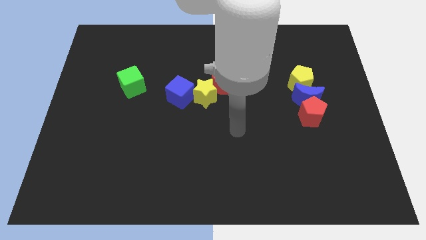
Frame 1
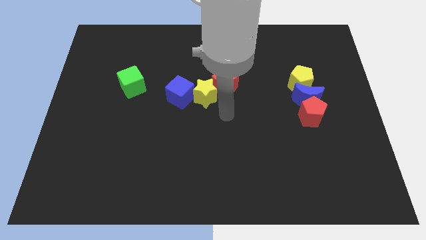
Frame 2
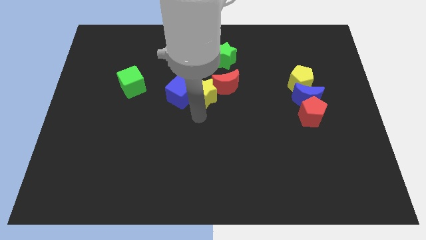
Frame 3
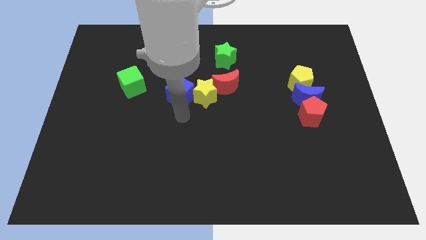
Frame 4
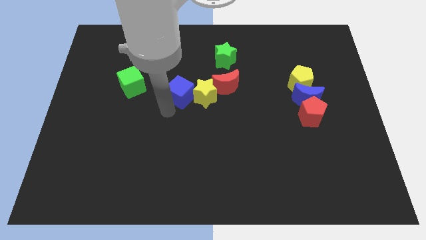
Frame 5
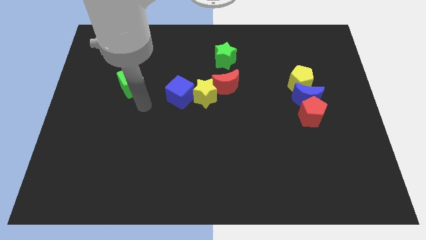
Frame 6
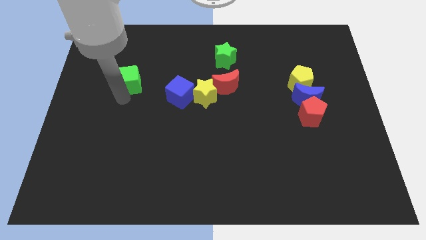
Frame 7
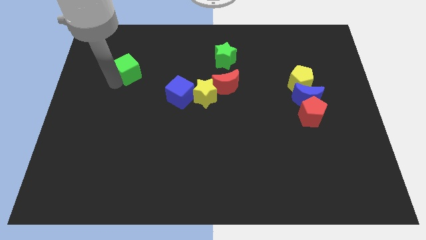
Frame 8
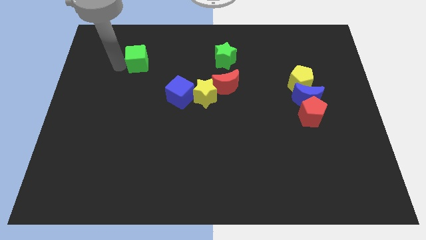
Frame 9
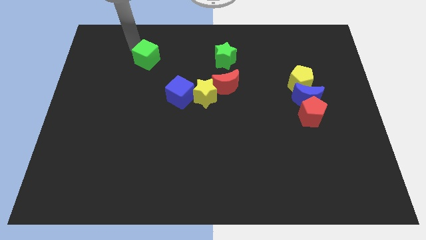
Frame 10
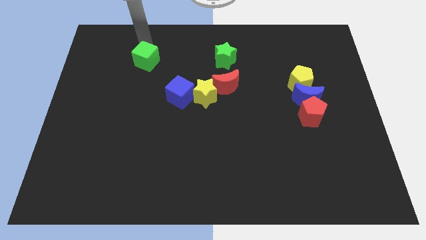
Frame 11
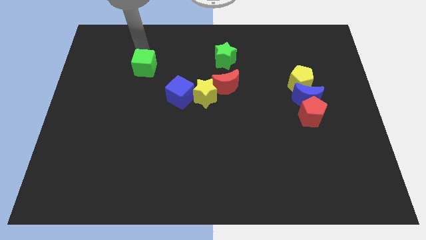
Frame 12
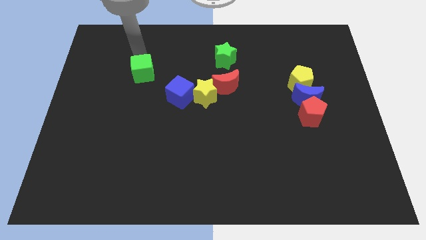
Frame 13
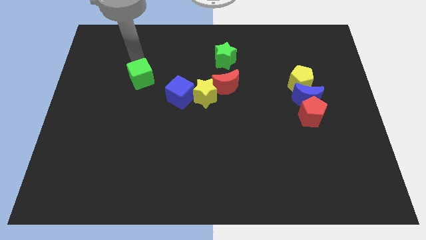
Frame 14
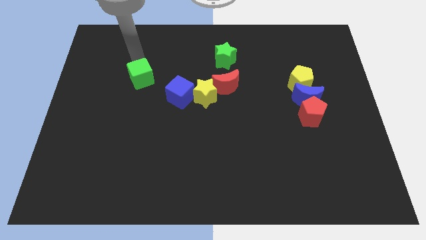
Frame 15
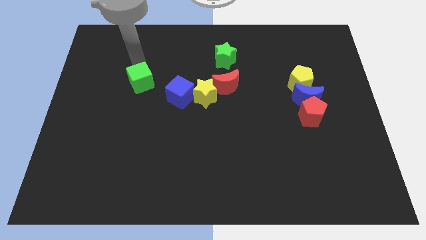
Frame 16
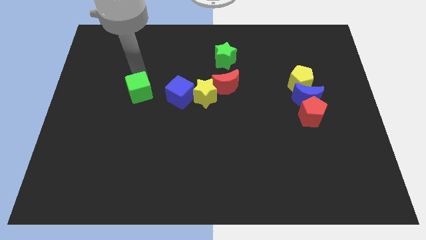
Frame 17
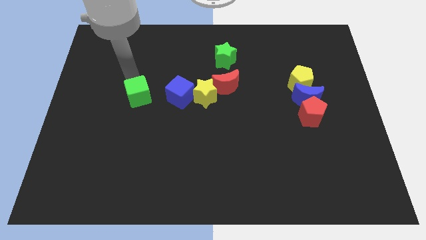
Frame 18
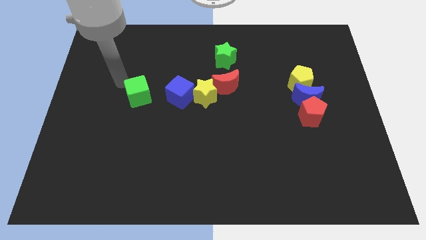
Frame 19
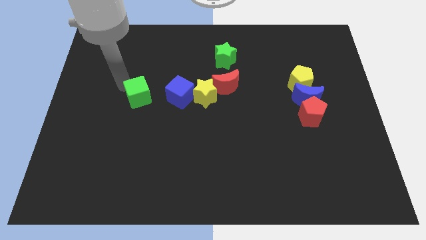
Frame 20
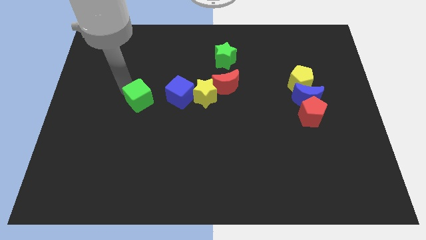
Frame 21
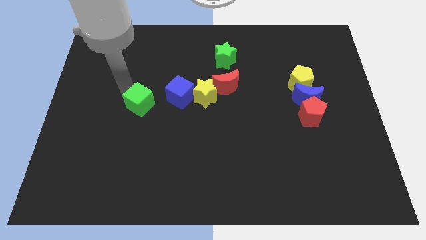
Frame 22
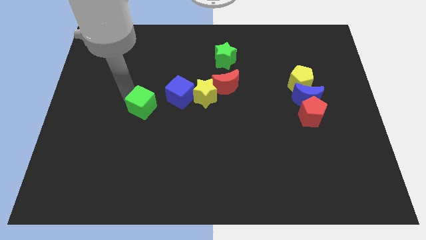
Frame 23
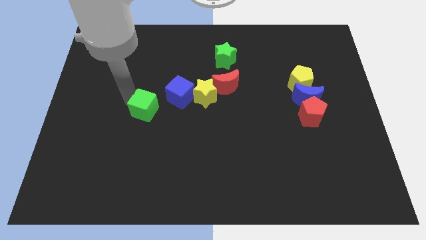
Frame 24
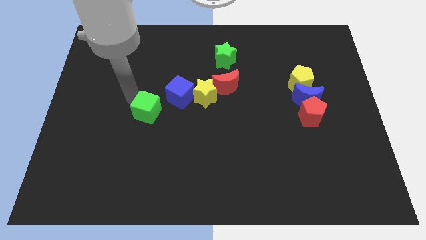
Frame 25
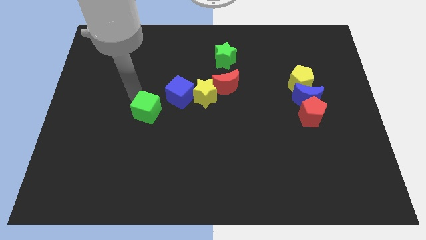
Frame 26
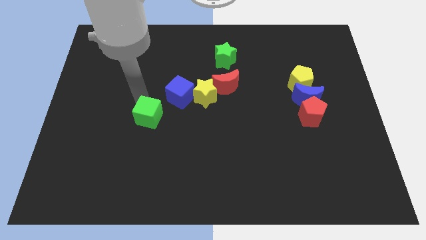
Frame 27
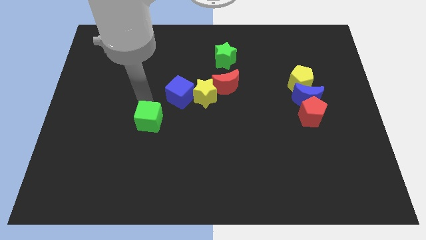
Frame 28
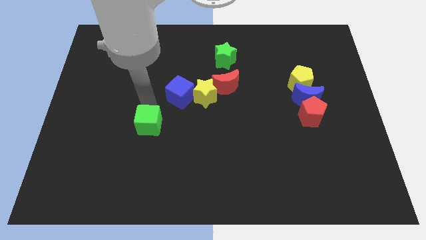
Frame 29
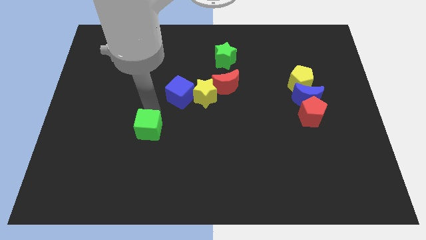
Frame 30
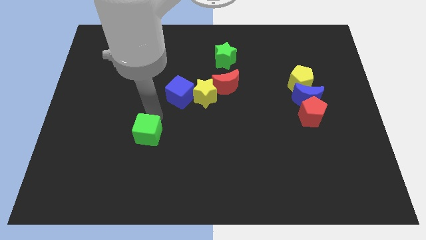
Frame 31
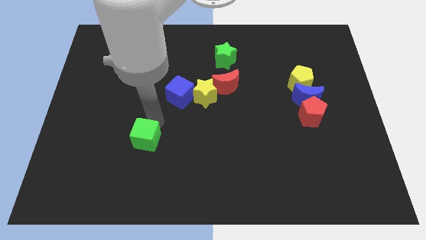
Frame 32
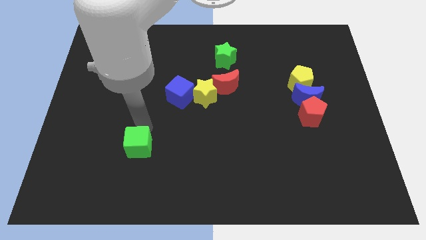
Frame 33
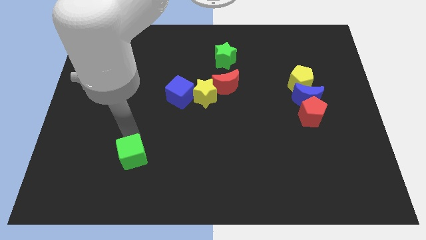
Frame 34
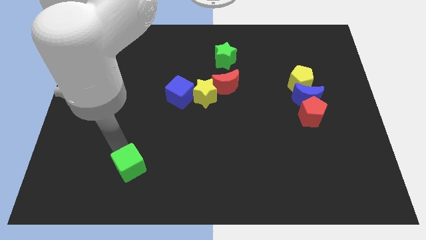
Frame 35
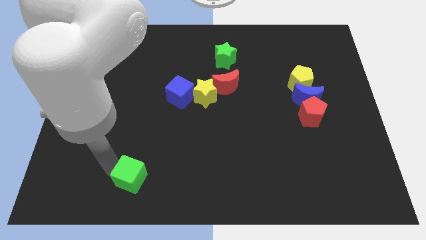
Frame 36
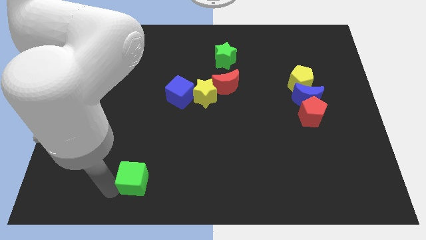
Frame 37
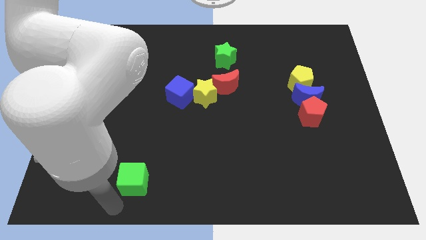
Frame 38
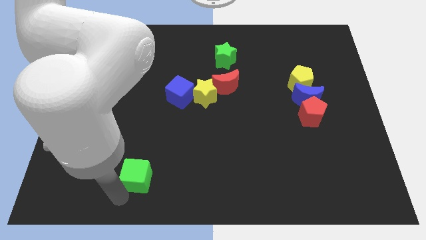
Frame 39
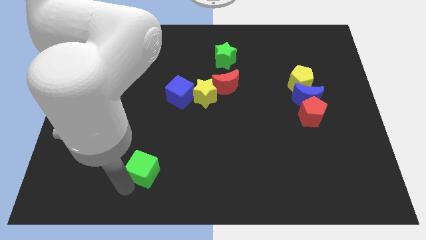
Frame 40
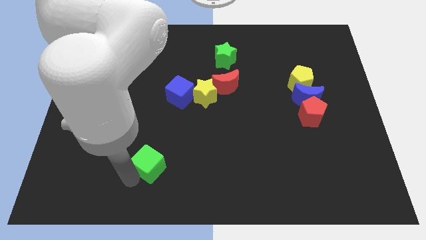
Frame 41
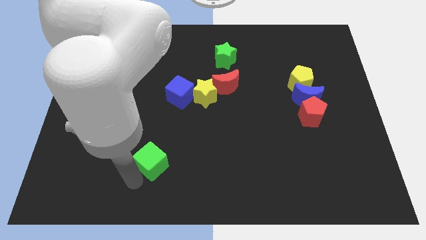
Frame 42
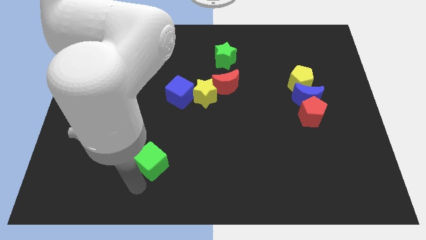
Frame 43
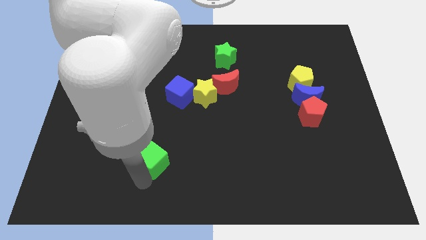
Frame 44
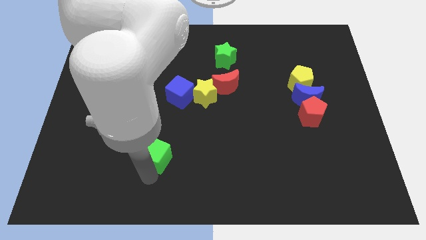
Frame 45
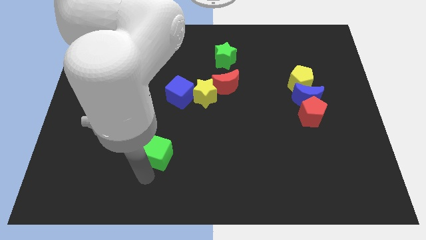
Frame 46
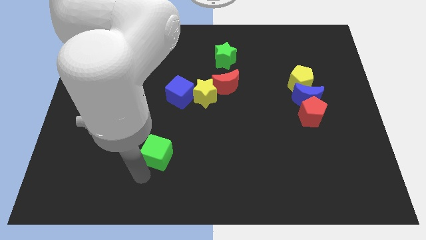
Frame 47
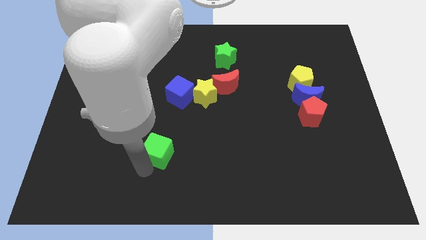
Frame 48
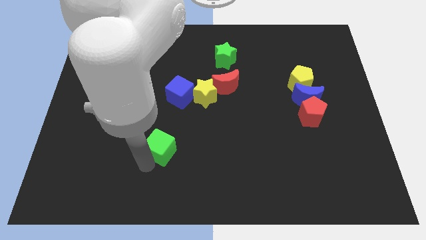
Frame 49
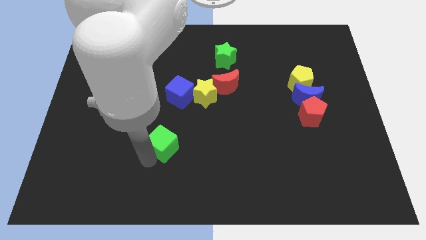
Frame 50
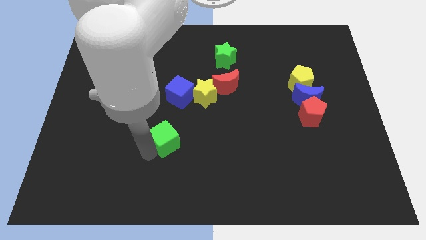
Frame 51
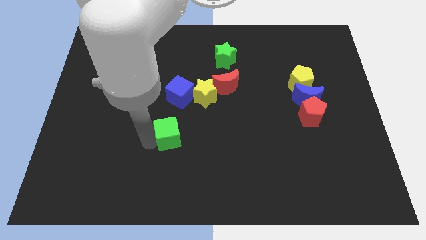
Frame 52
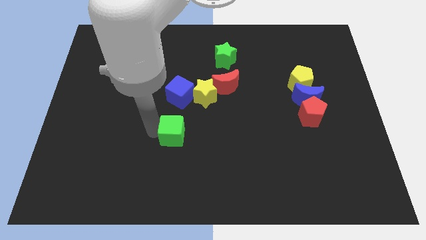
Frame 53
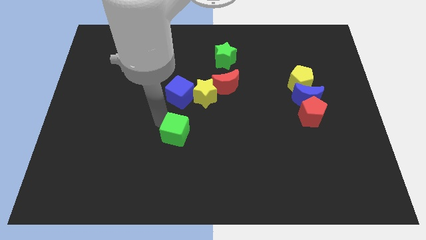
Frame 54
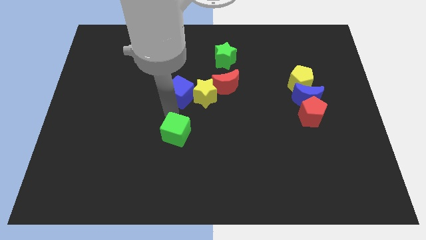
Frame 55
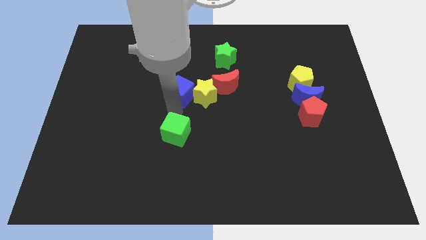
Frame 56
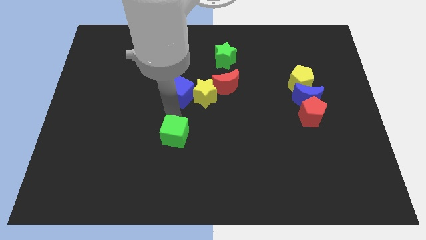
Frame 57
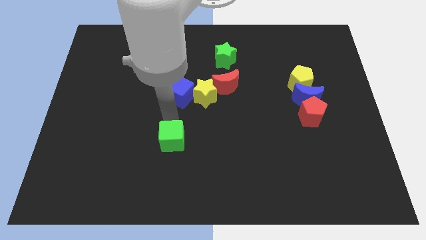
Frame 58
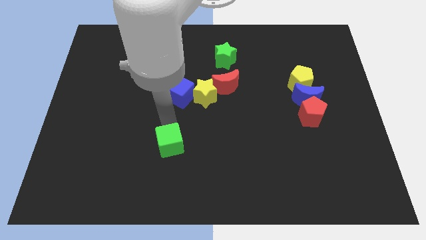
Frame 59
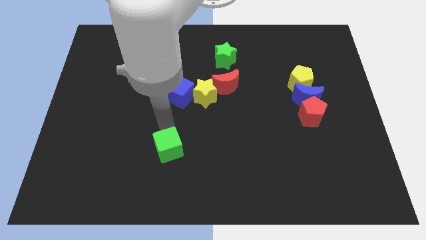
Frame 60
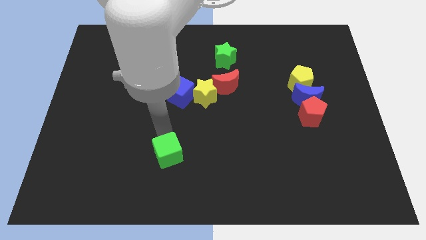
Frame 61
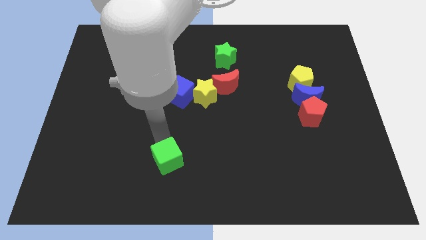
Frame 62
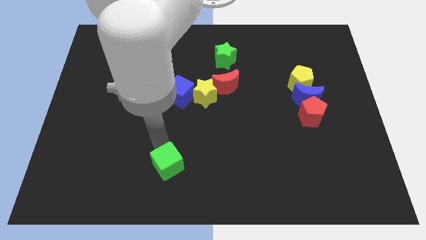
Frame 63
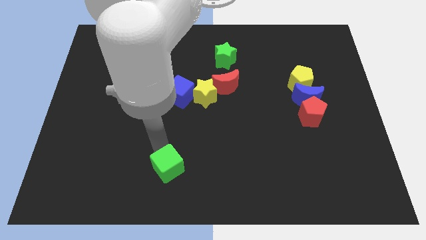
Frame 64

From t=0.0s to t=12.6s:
push the green cube to the bottom
